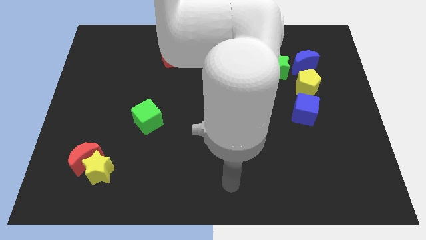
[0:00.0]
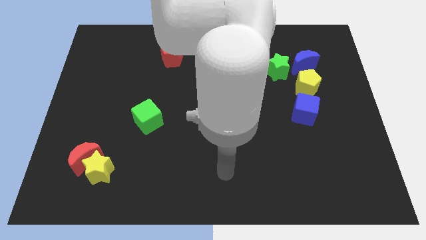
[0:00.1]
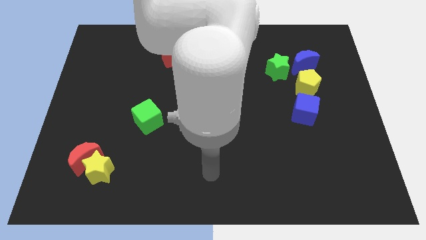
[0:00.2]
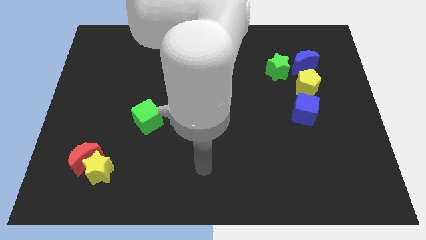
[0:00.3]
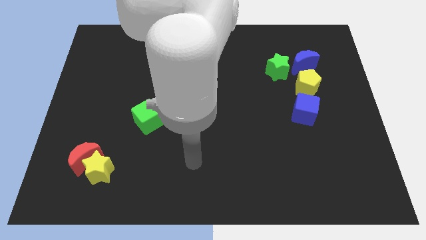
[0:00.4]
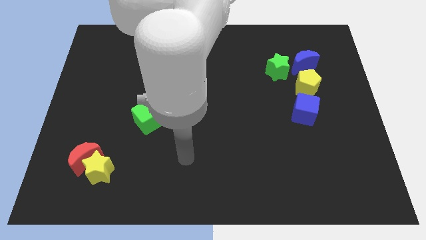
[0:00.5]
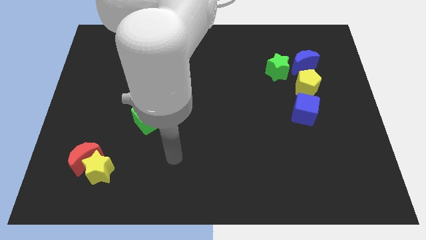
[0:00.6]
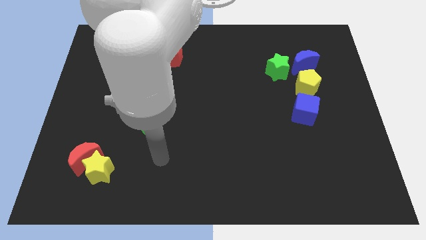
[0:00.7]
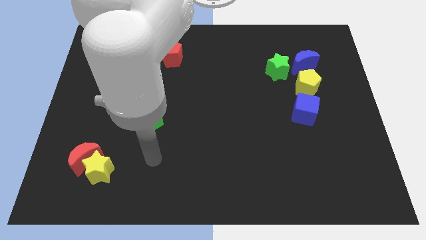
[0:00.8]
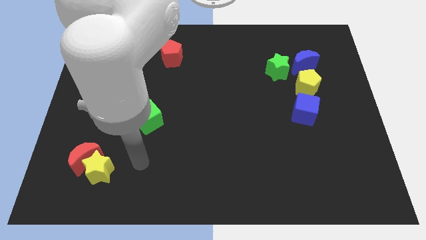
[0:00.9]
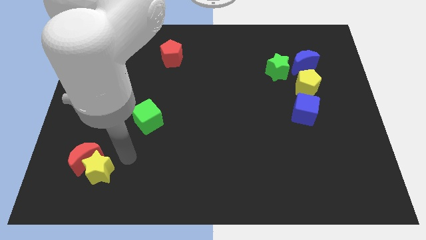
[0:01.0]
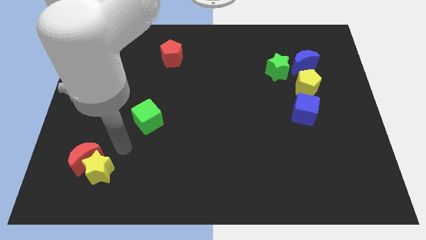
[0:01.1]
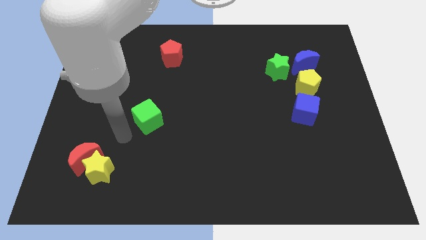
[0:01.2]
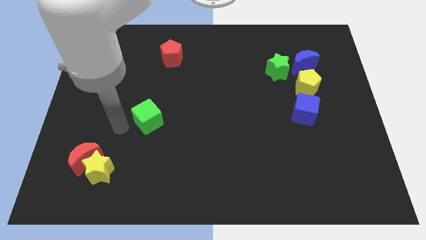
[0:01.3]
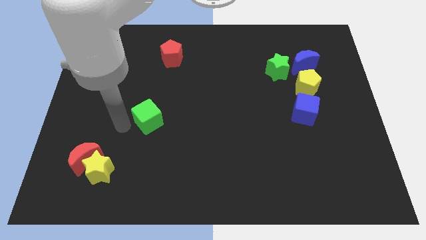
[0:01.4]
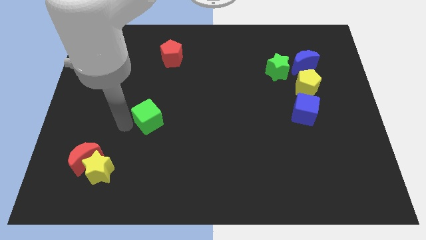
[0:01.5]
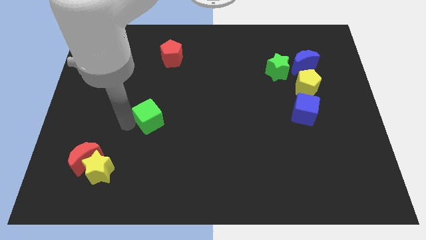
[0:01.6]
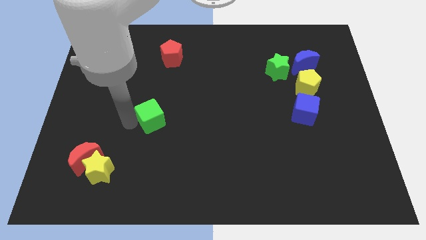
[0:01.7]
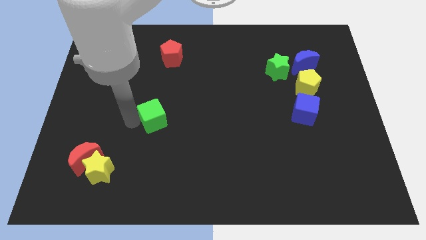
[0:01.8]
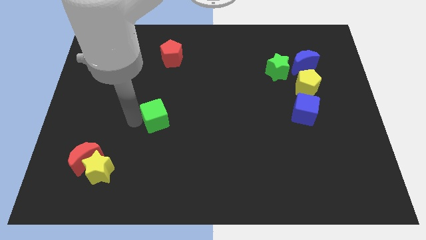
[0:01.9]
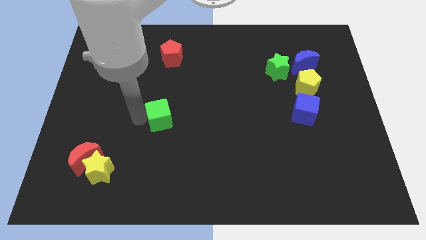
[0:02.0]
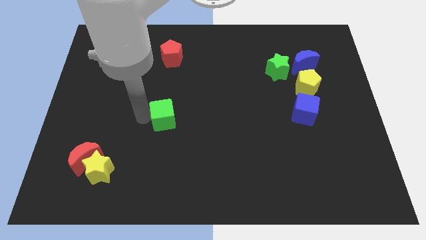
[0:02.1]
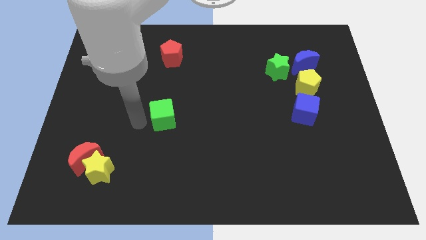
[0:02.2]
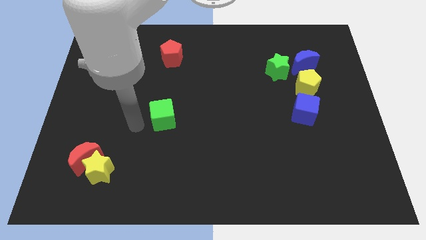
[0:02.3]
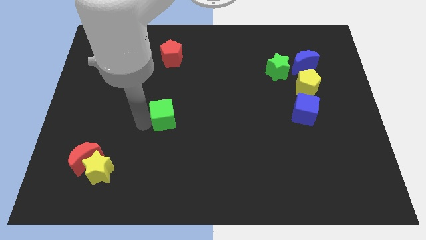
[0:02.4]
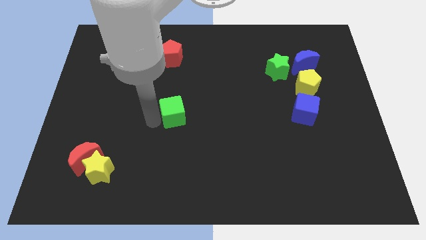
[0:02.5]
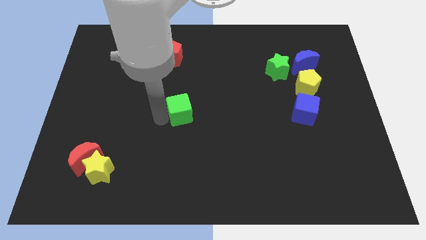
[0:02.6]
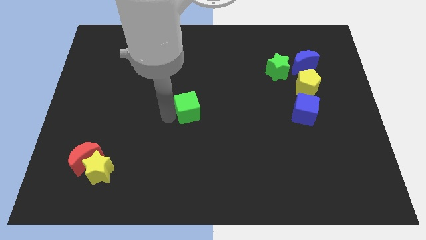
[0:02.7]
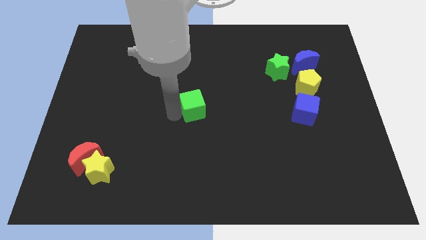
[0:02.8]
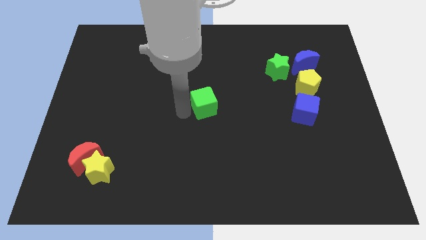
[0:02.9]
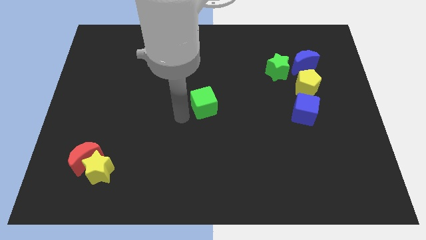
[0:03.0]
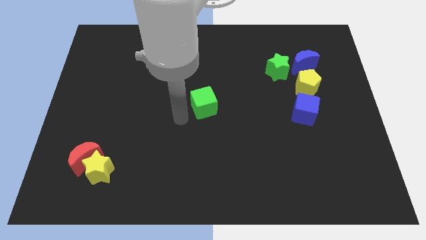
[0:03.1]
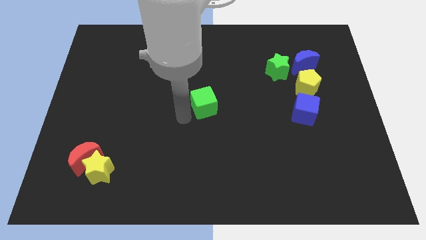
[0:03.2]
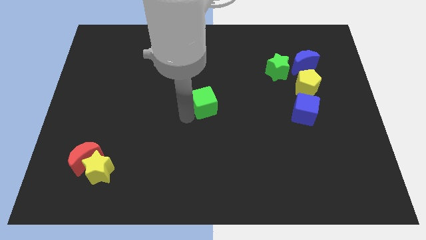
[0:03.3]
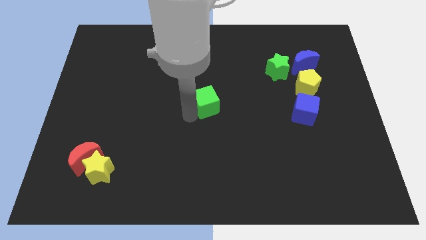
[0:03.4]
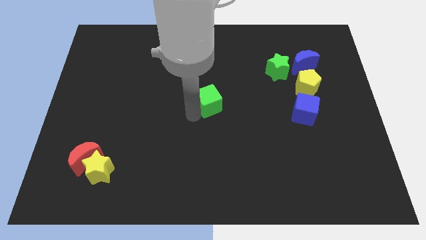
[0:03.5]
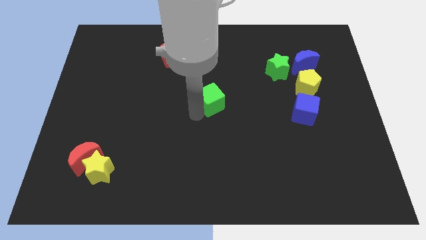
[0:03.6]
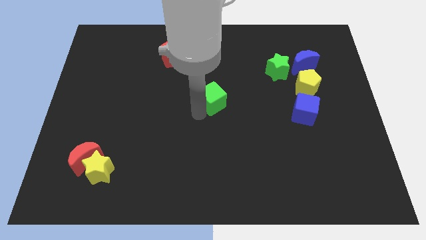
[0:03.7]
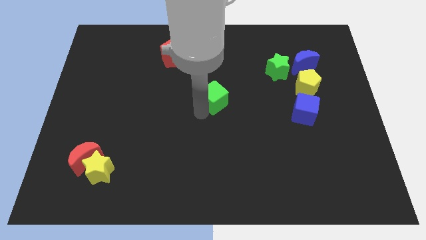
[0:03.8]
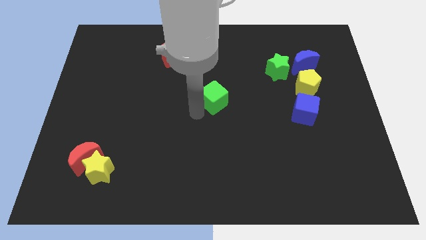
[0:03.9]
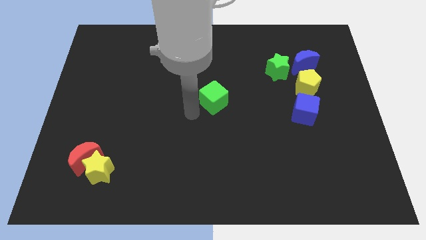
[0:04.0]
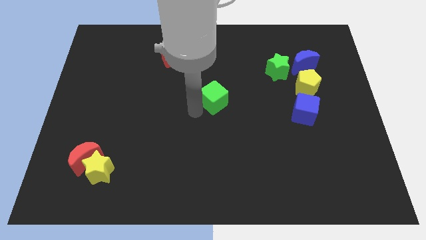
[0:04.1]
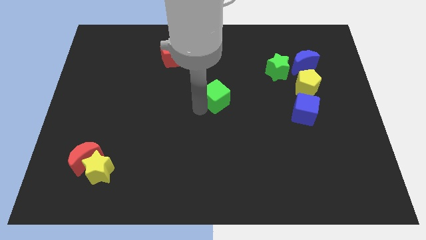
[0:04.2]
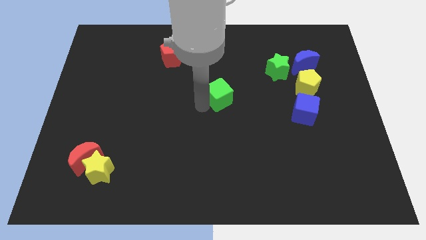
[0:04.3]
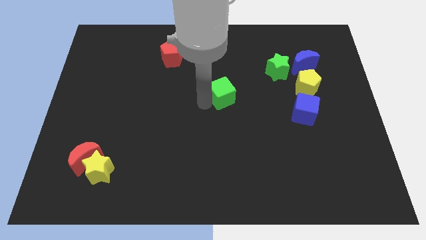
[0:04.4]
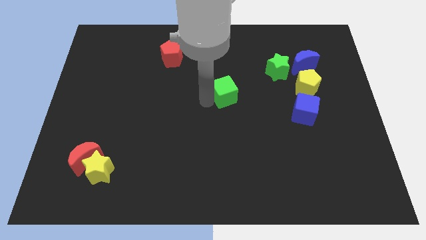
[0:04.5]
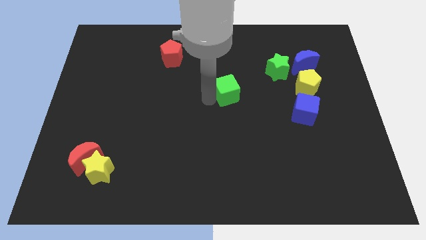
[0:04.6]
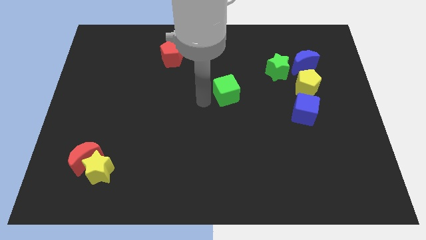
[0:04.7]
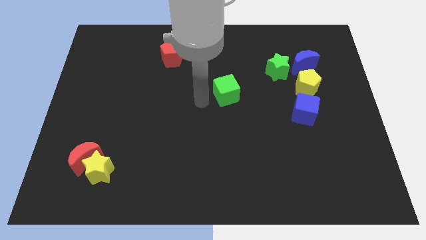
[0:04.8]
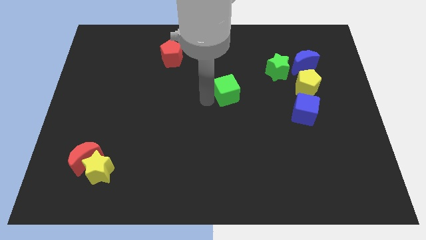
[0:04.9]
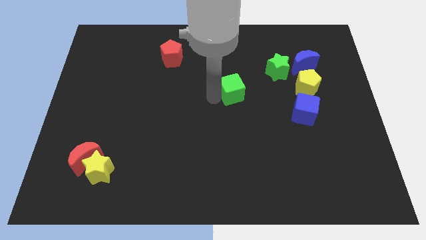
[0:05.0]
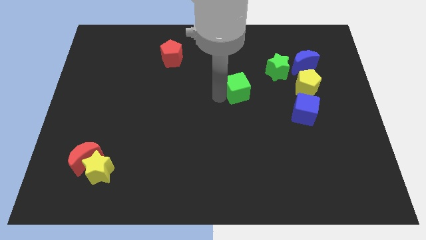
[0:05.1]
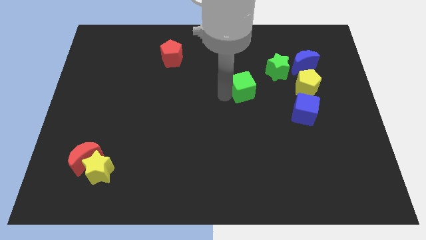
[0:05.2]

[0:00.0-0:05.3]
move the green cube to the left side of the yellow pentagon

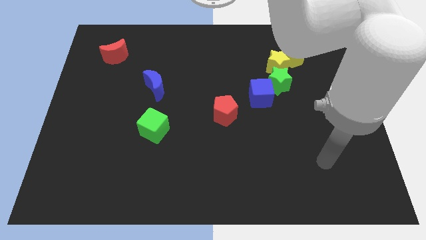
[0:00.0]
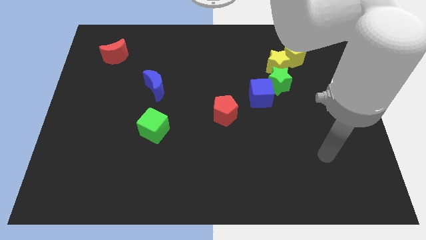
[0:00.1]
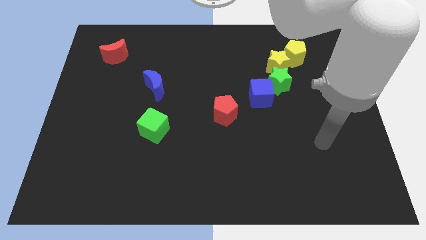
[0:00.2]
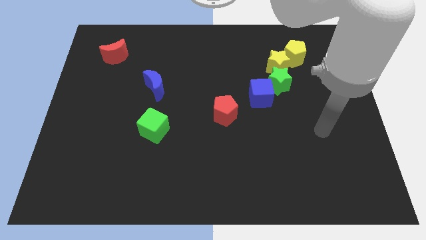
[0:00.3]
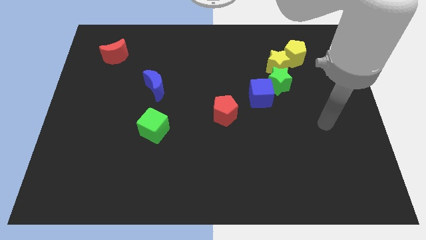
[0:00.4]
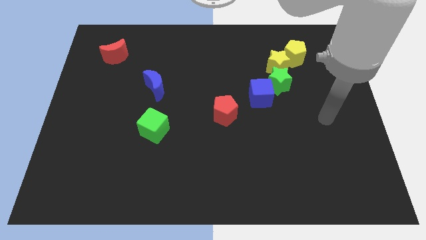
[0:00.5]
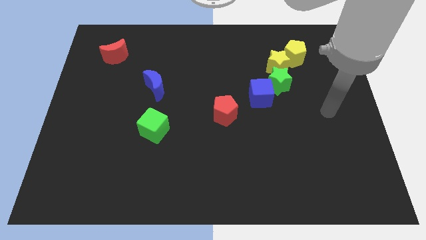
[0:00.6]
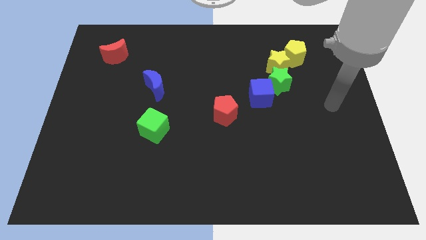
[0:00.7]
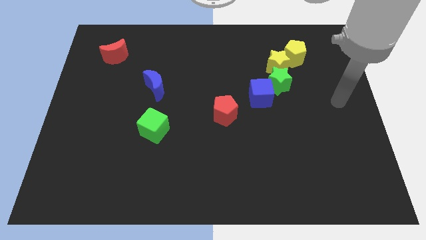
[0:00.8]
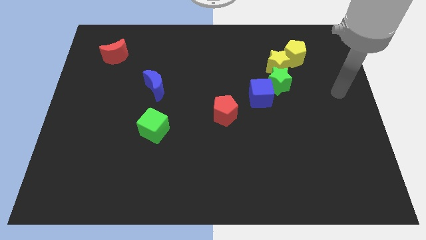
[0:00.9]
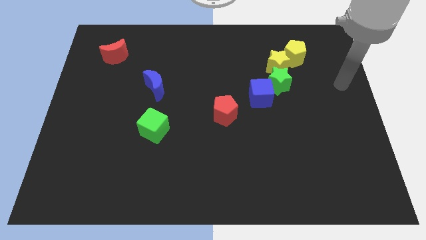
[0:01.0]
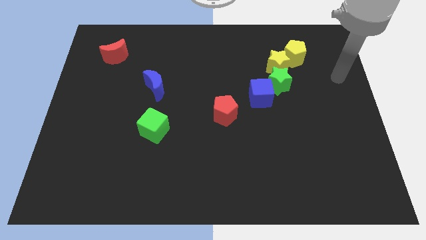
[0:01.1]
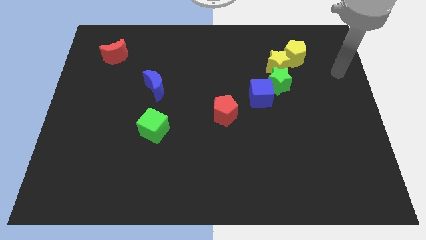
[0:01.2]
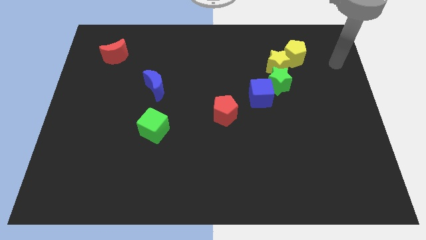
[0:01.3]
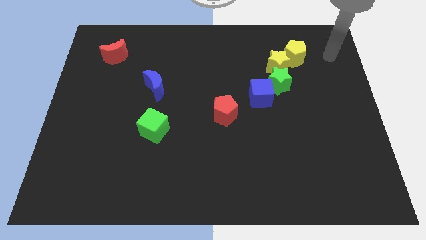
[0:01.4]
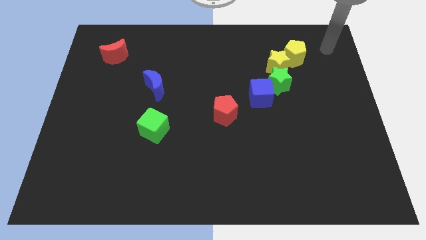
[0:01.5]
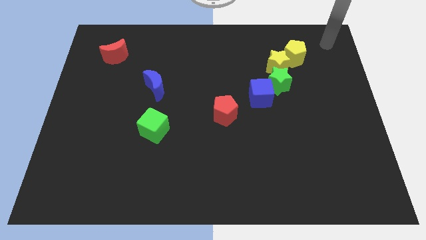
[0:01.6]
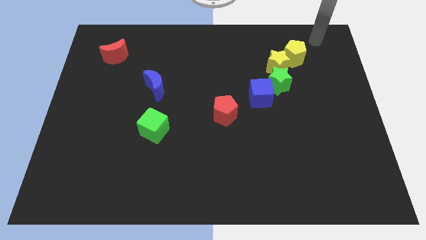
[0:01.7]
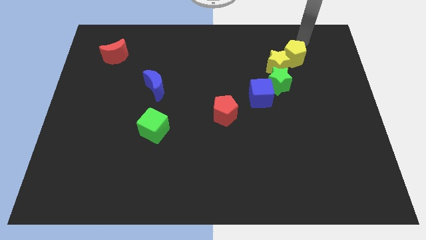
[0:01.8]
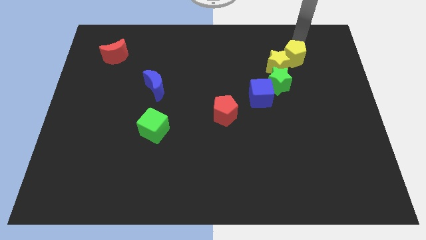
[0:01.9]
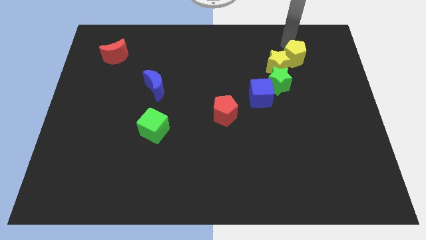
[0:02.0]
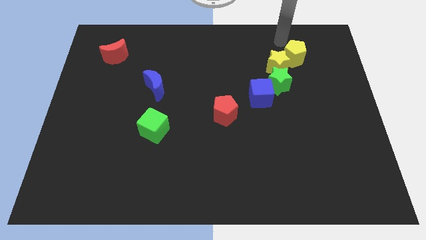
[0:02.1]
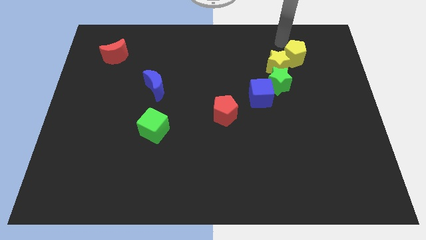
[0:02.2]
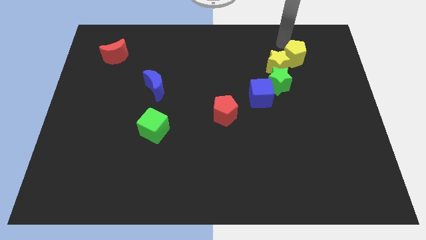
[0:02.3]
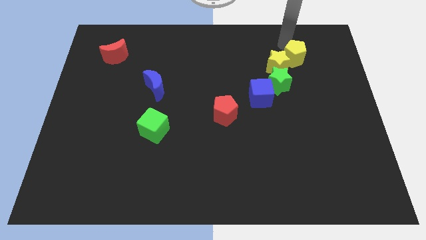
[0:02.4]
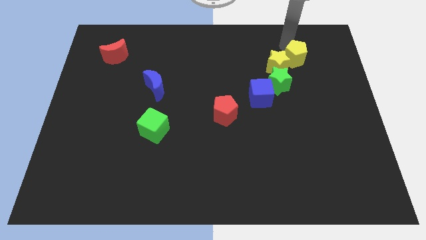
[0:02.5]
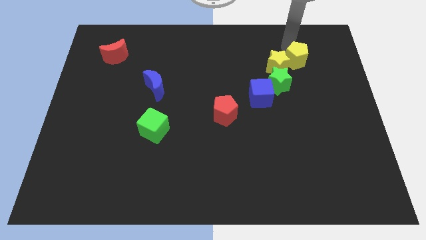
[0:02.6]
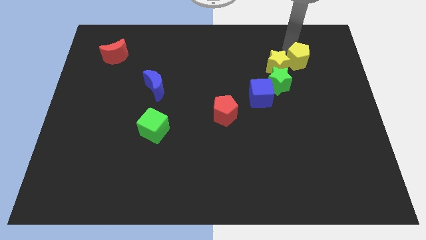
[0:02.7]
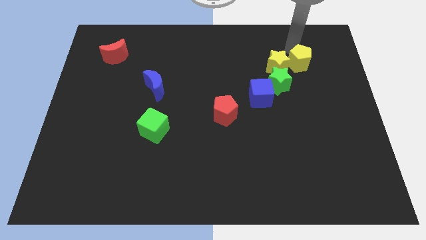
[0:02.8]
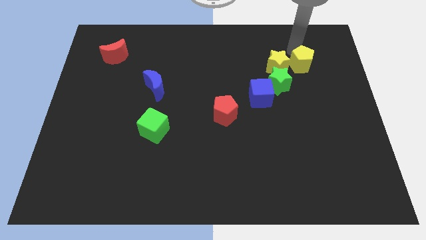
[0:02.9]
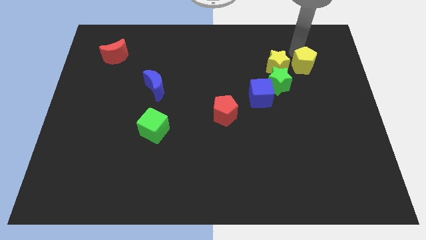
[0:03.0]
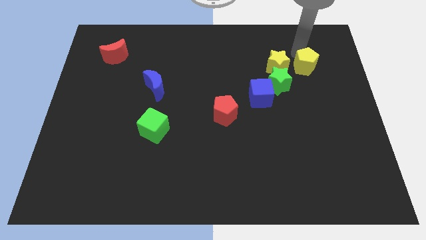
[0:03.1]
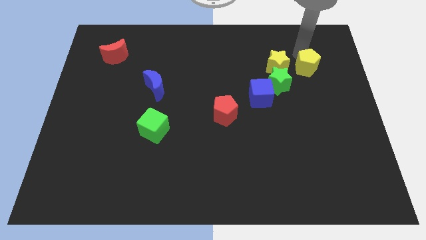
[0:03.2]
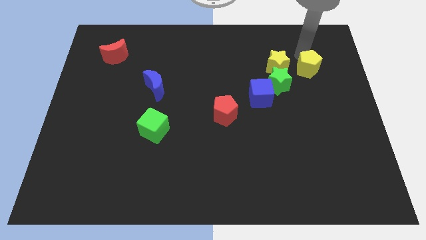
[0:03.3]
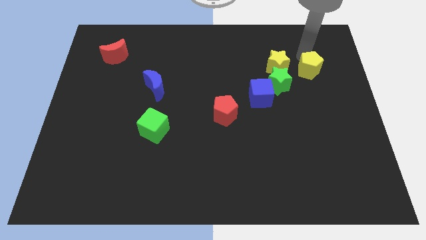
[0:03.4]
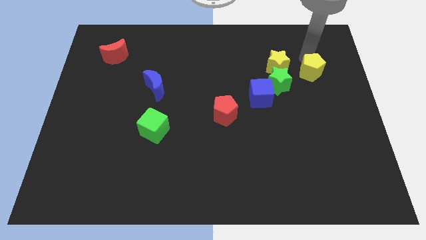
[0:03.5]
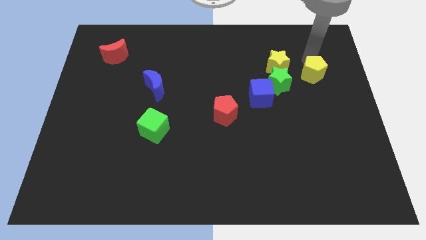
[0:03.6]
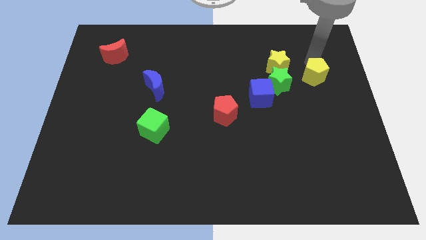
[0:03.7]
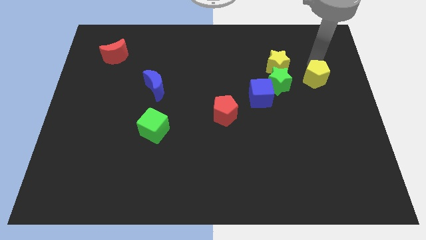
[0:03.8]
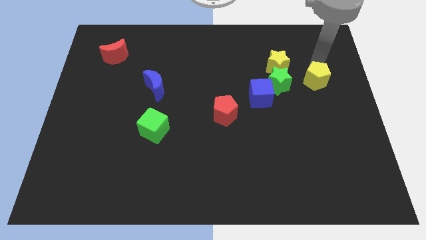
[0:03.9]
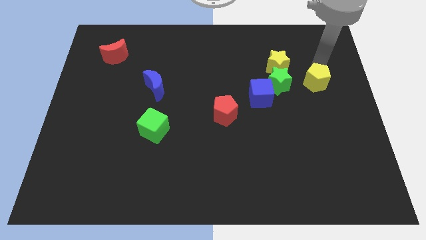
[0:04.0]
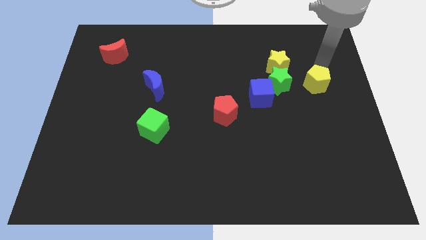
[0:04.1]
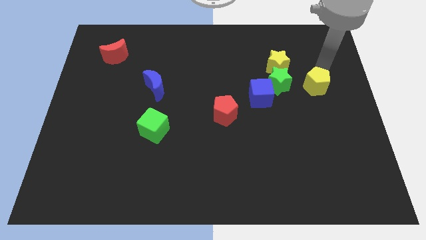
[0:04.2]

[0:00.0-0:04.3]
put the yellow pentagon to the right side of the blue cube
